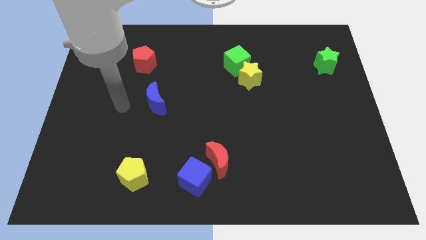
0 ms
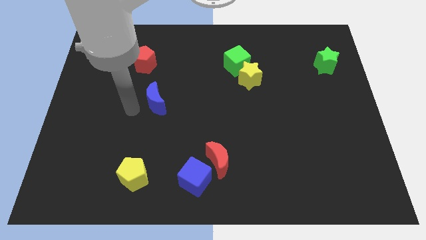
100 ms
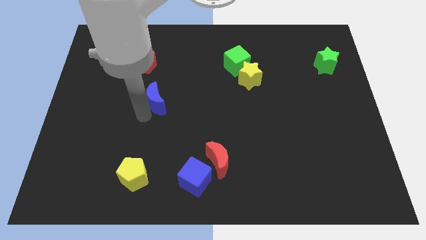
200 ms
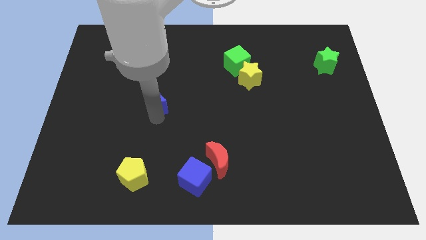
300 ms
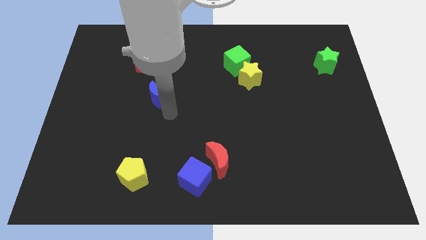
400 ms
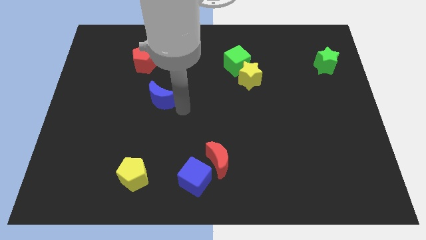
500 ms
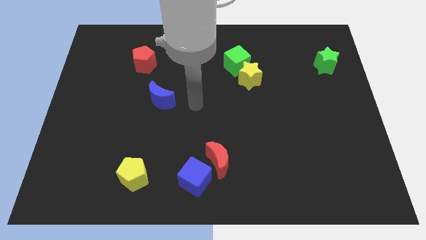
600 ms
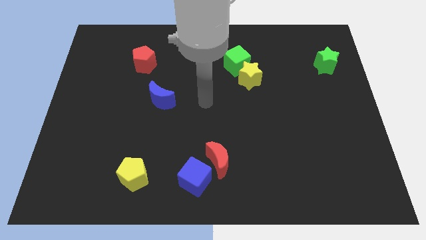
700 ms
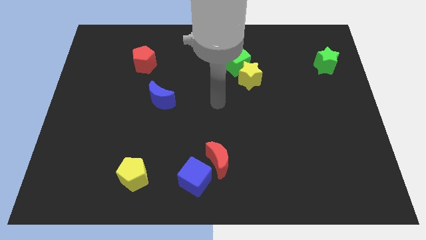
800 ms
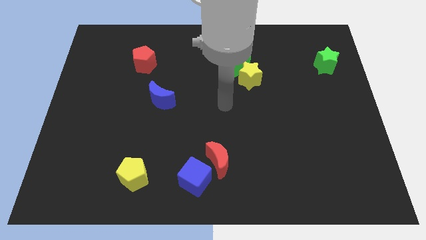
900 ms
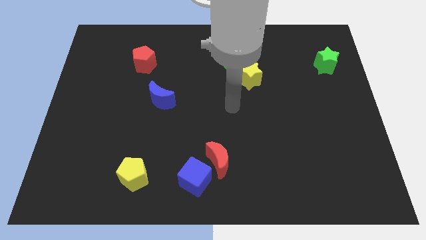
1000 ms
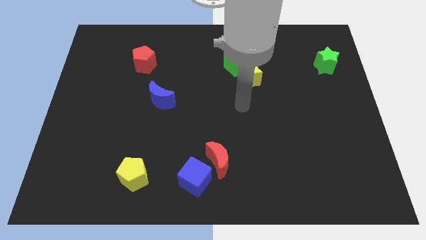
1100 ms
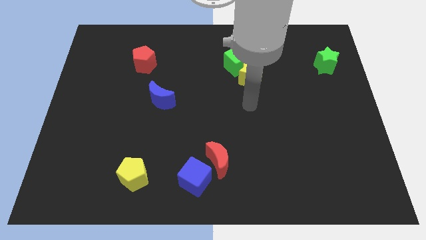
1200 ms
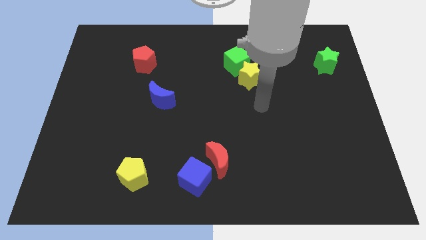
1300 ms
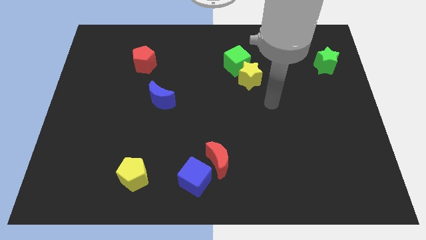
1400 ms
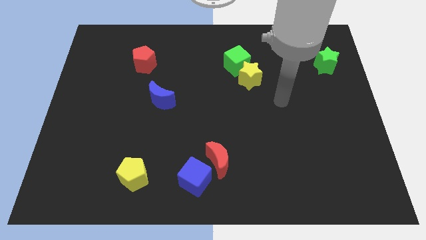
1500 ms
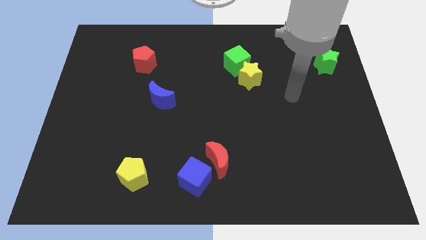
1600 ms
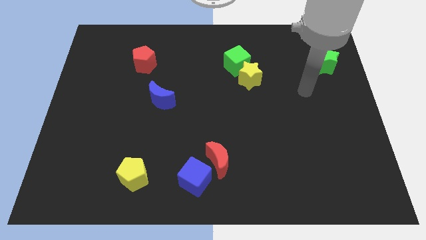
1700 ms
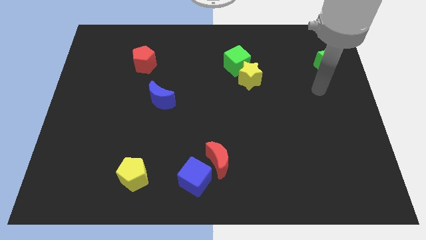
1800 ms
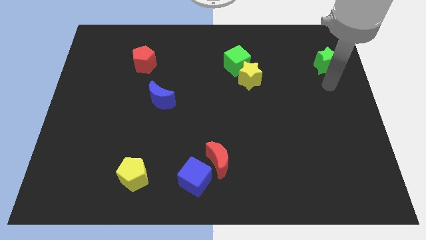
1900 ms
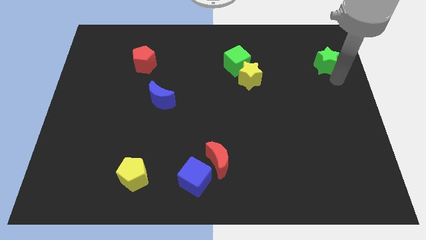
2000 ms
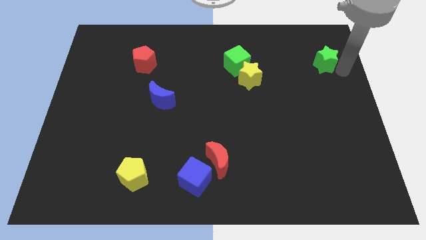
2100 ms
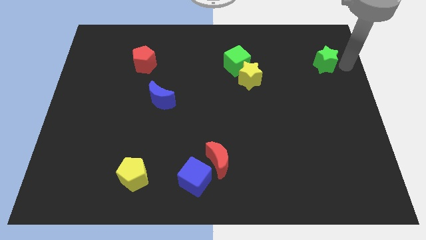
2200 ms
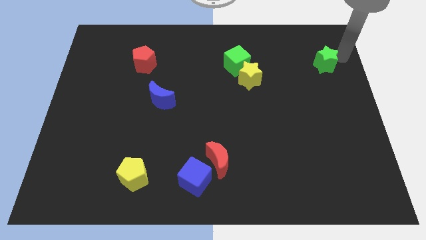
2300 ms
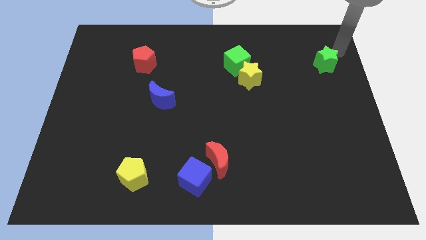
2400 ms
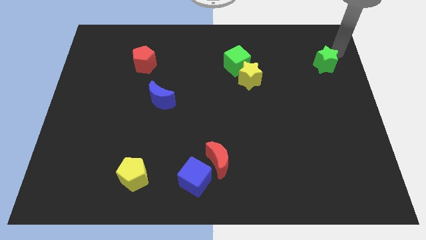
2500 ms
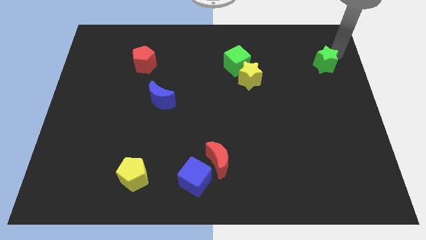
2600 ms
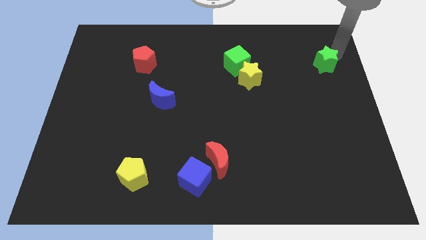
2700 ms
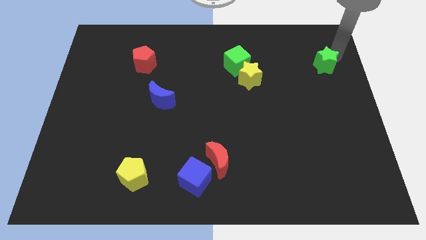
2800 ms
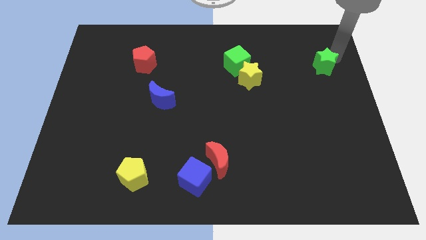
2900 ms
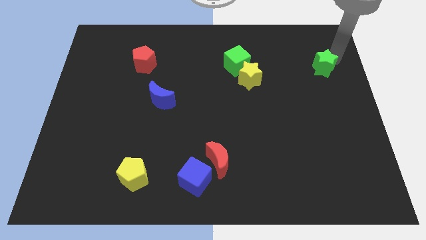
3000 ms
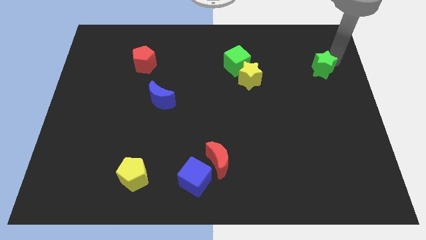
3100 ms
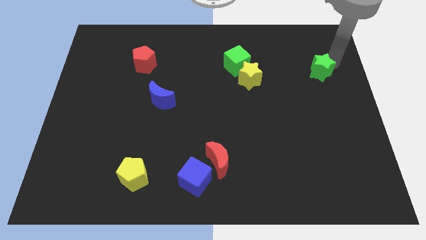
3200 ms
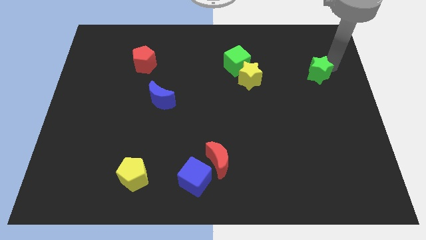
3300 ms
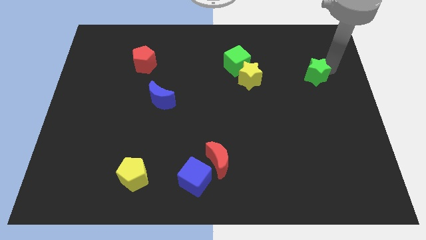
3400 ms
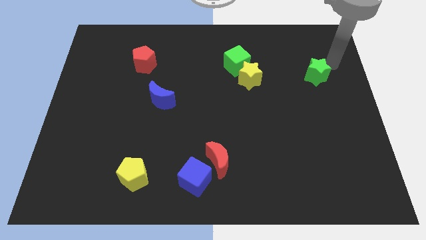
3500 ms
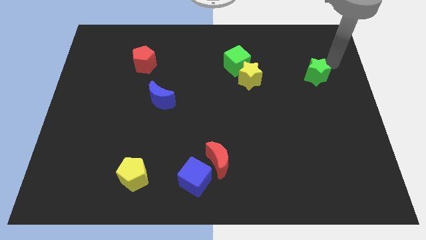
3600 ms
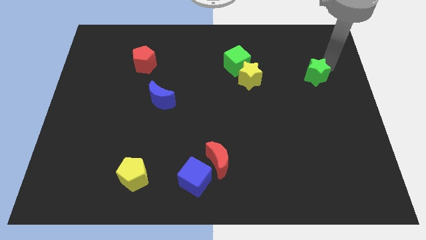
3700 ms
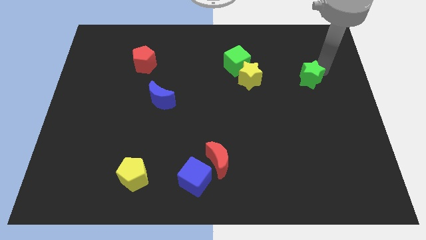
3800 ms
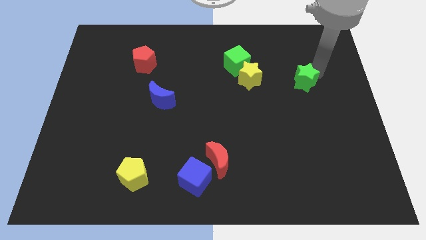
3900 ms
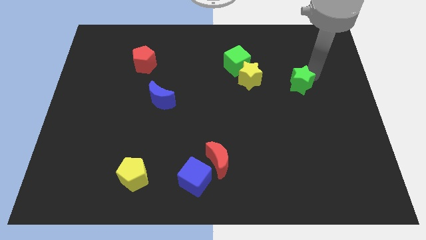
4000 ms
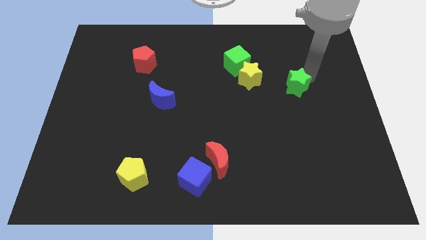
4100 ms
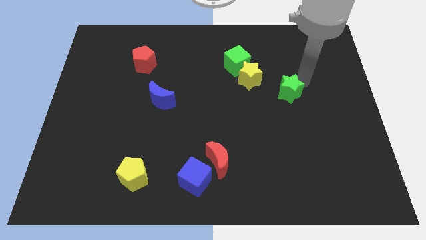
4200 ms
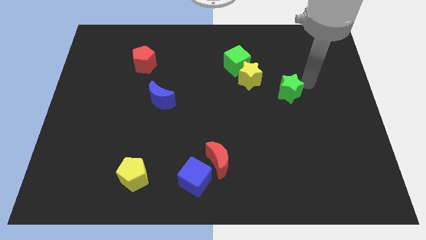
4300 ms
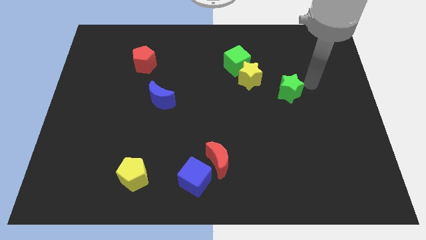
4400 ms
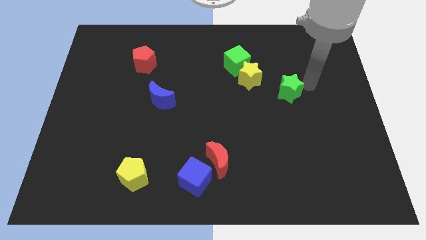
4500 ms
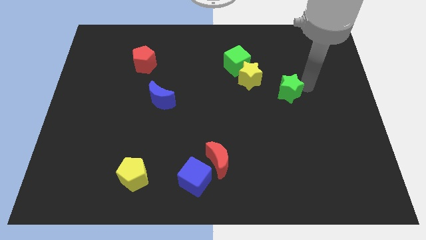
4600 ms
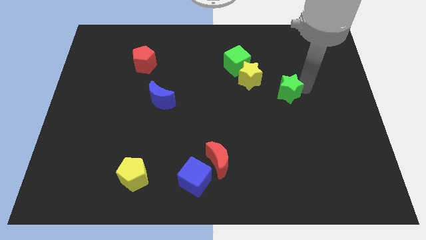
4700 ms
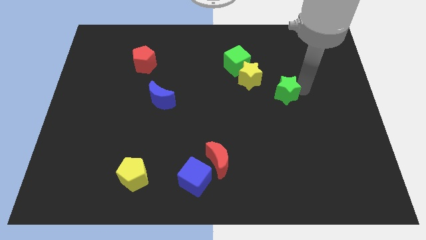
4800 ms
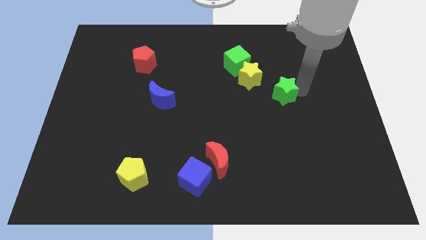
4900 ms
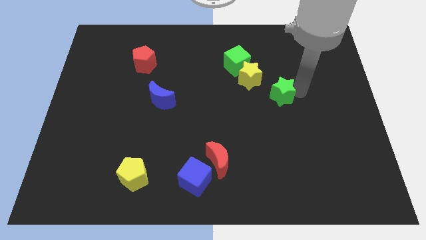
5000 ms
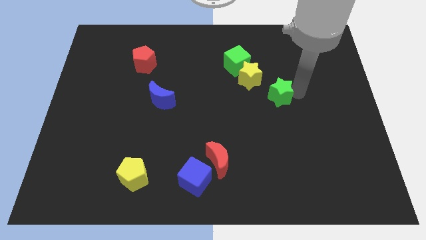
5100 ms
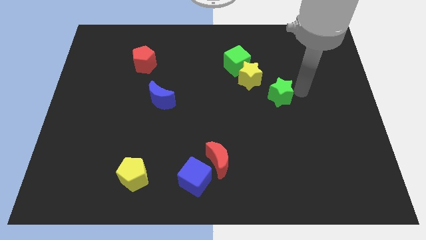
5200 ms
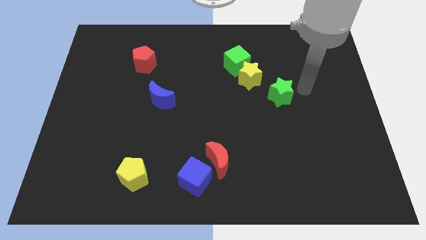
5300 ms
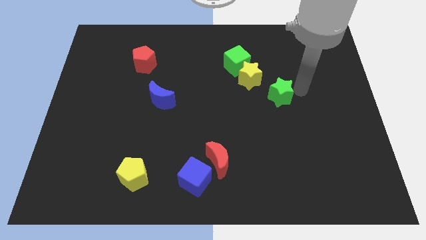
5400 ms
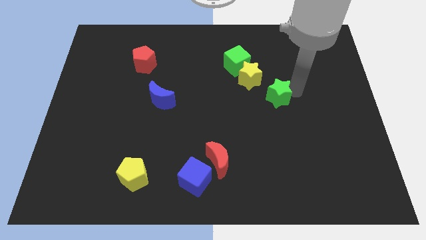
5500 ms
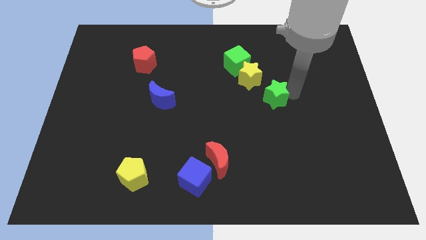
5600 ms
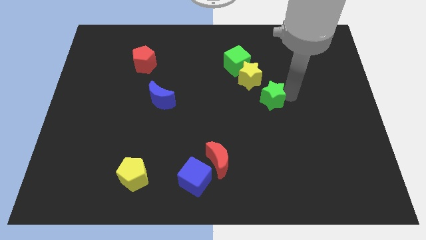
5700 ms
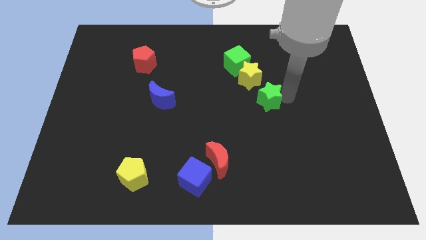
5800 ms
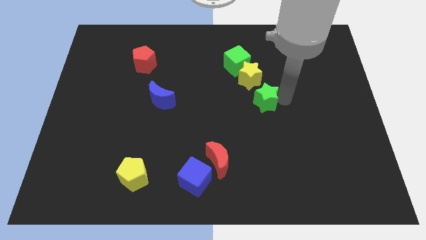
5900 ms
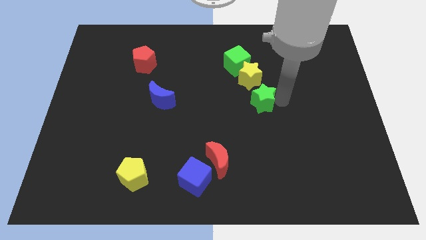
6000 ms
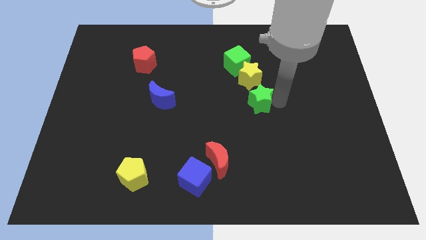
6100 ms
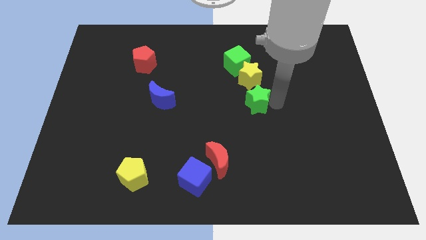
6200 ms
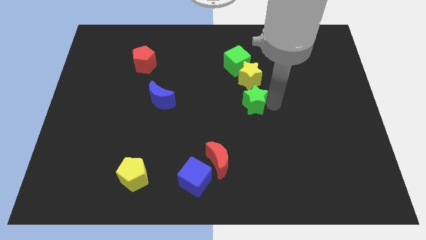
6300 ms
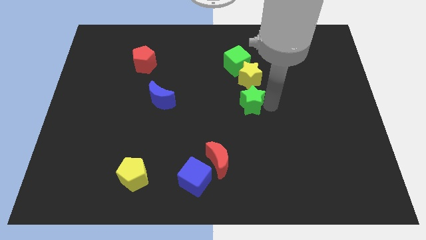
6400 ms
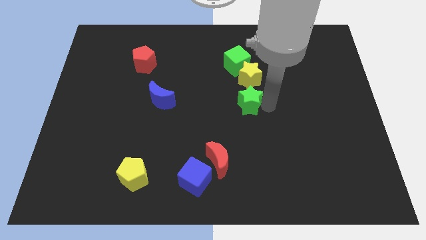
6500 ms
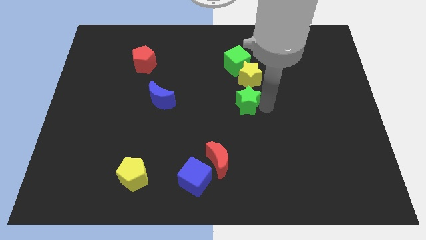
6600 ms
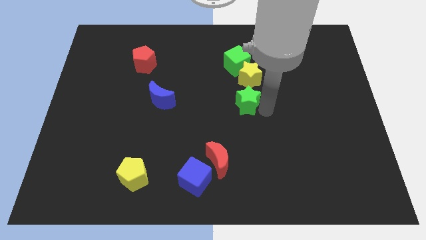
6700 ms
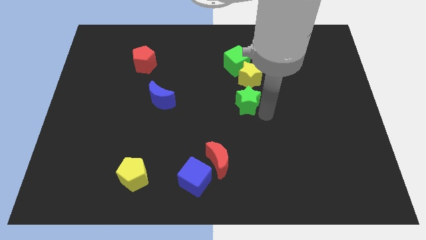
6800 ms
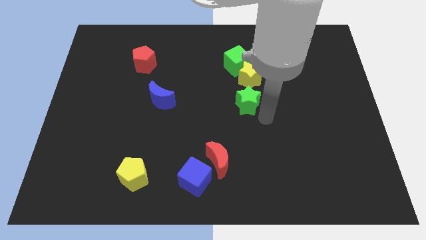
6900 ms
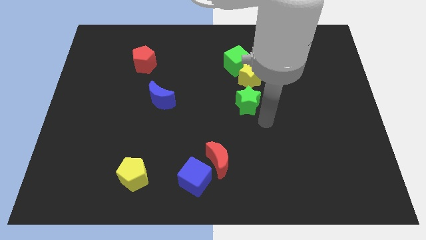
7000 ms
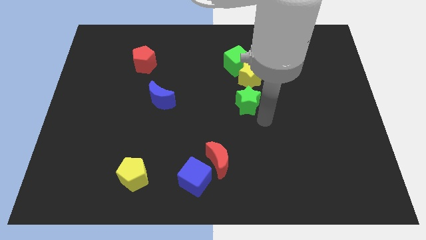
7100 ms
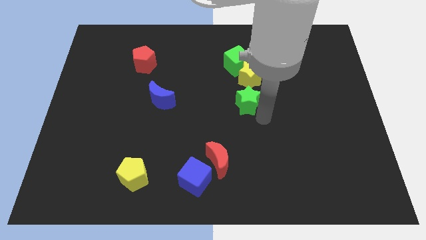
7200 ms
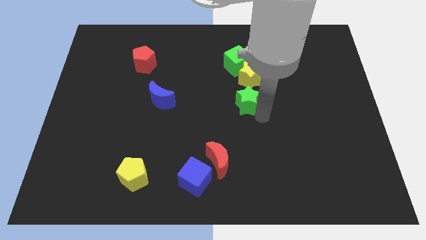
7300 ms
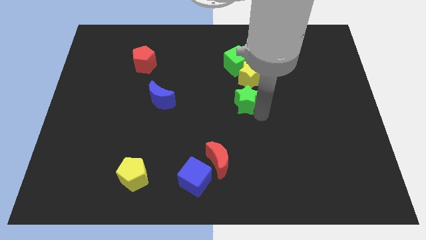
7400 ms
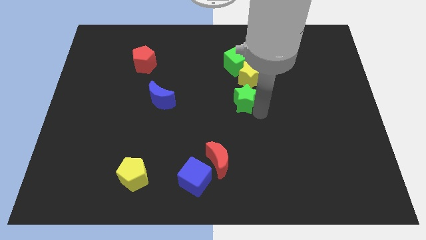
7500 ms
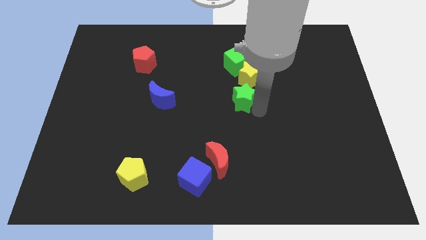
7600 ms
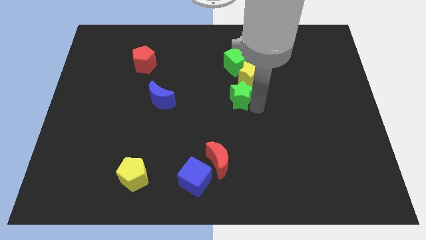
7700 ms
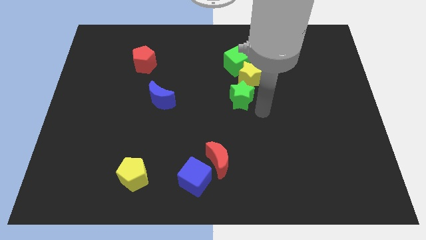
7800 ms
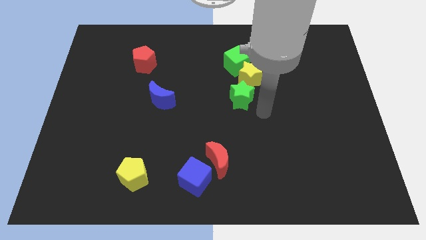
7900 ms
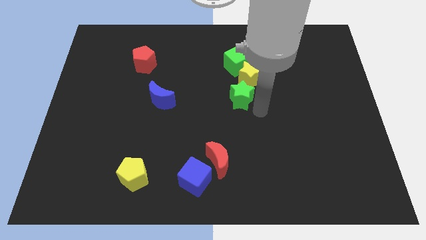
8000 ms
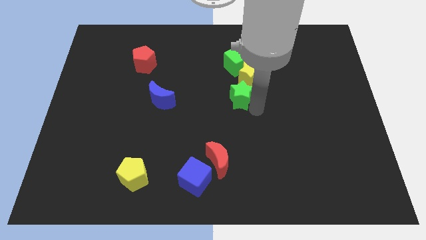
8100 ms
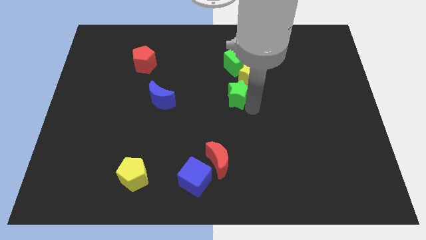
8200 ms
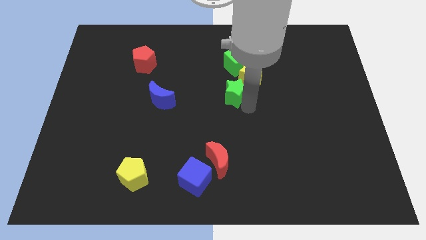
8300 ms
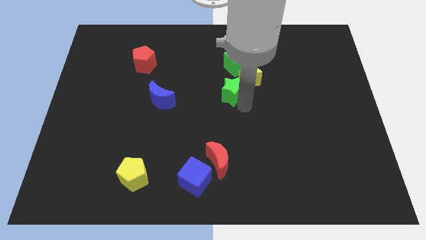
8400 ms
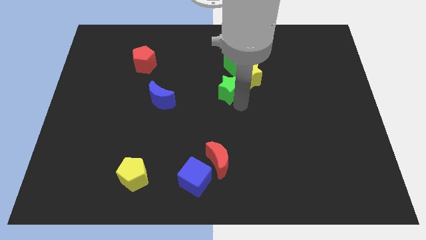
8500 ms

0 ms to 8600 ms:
move the green star to the left side of the yellow star
